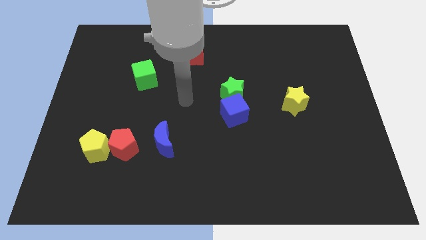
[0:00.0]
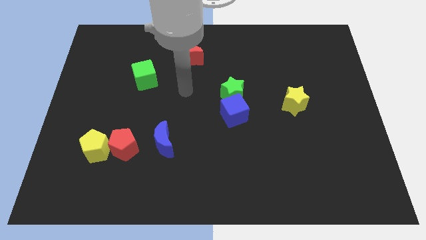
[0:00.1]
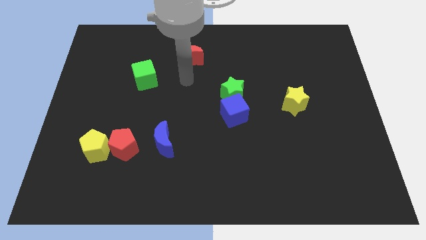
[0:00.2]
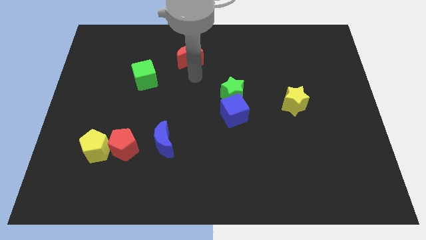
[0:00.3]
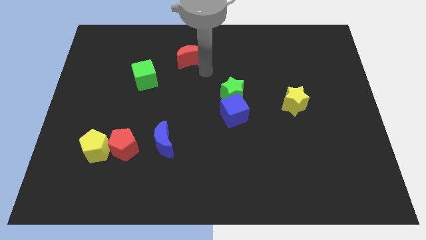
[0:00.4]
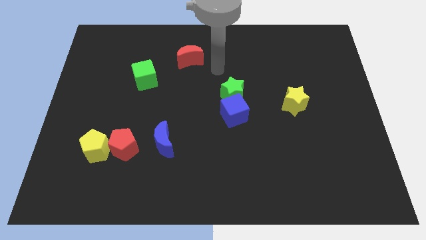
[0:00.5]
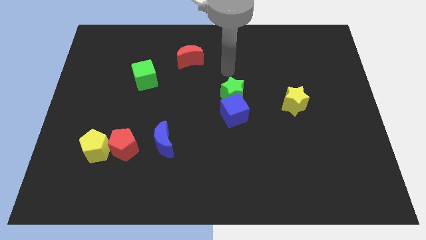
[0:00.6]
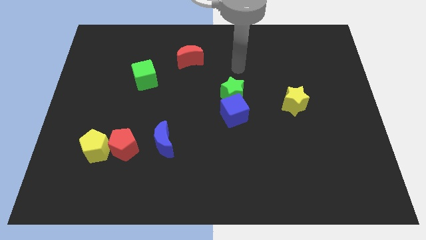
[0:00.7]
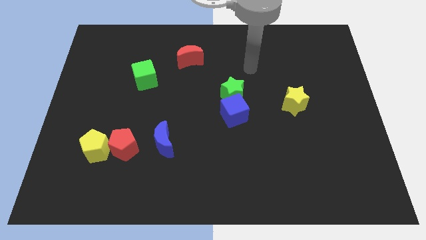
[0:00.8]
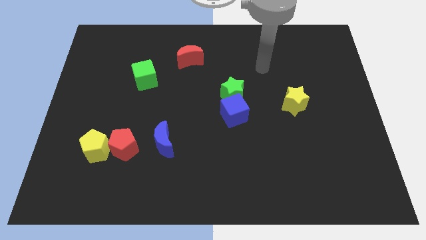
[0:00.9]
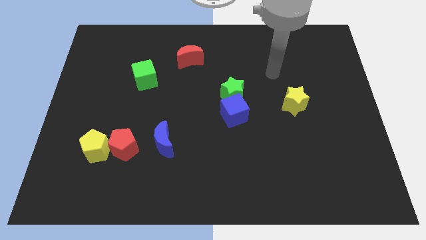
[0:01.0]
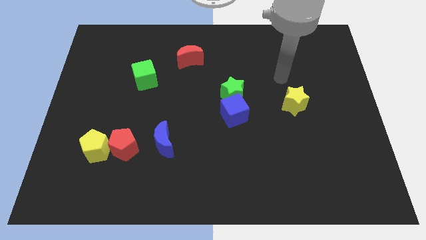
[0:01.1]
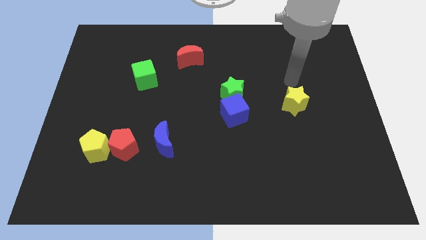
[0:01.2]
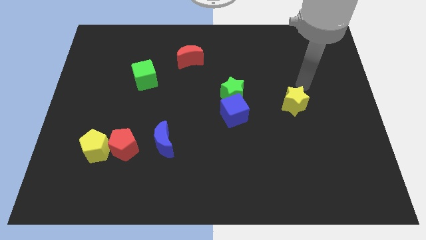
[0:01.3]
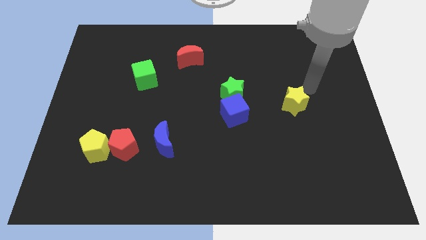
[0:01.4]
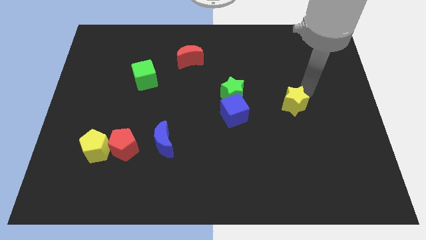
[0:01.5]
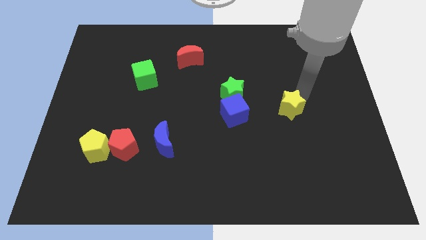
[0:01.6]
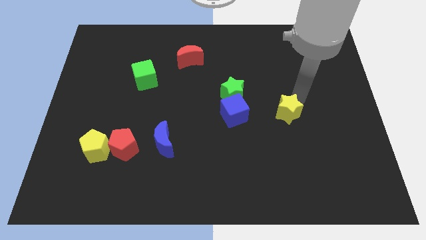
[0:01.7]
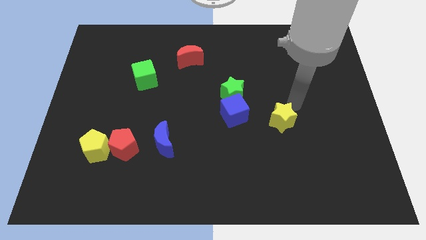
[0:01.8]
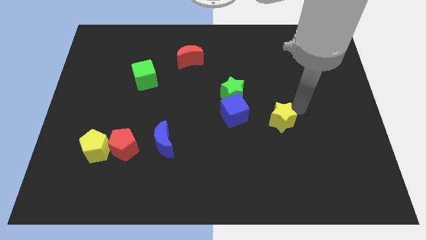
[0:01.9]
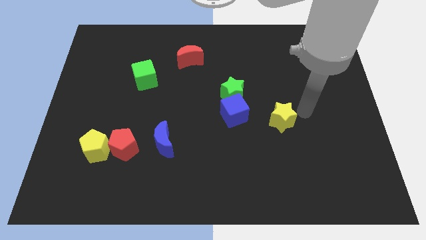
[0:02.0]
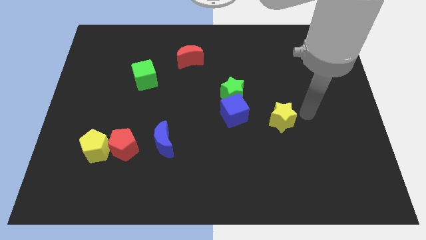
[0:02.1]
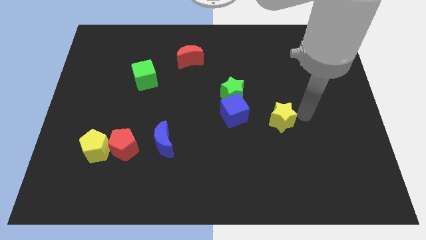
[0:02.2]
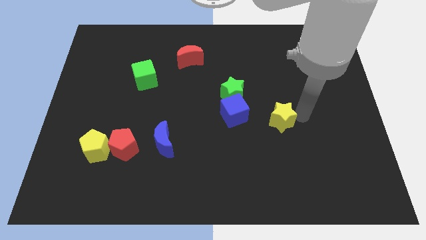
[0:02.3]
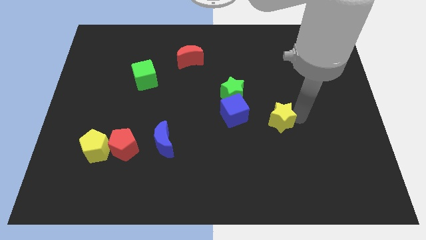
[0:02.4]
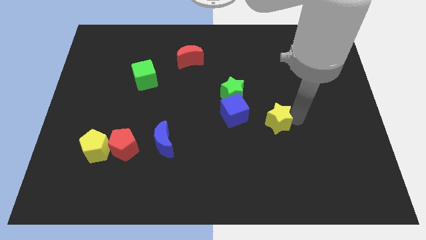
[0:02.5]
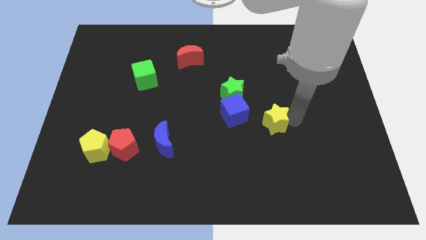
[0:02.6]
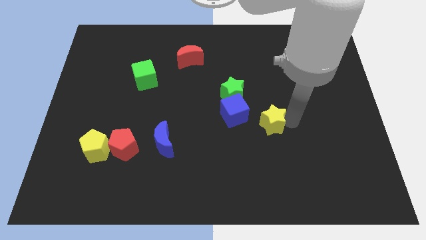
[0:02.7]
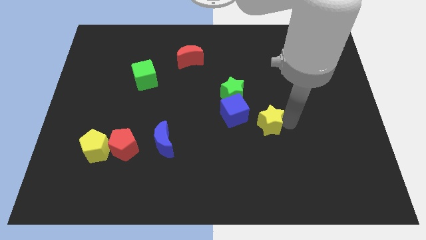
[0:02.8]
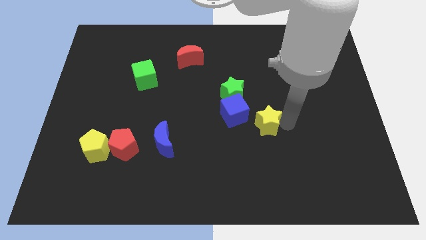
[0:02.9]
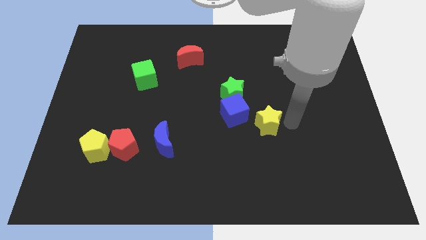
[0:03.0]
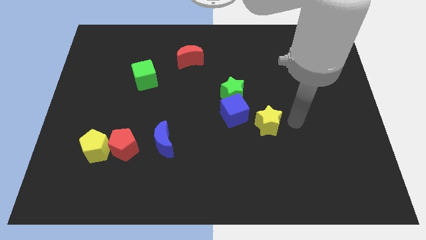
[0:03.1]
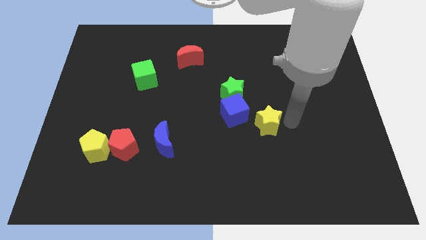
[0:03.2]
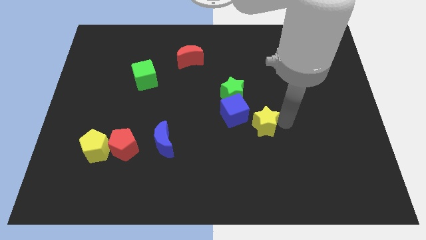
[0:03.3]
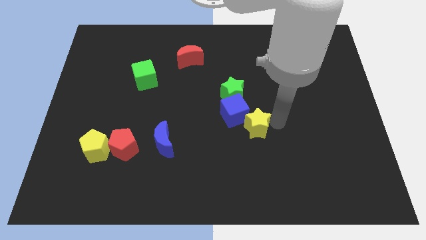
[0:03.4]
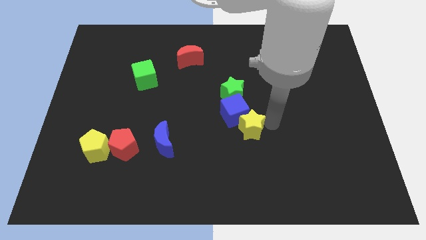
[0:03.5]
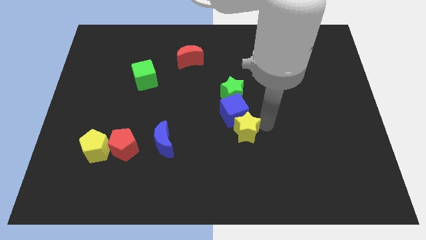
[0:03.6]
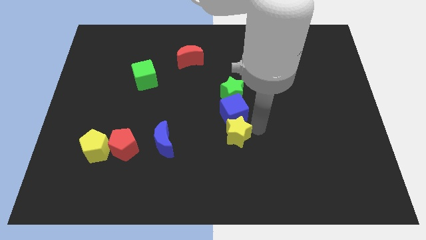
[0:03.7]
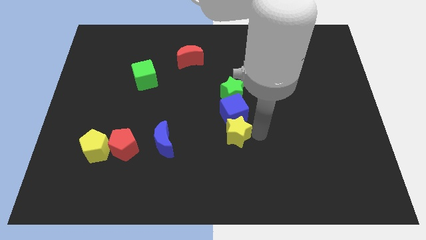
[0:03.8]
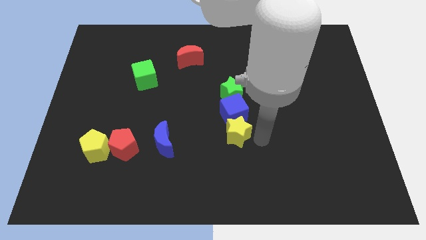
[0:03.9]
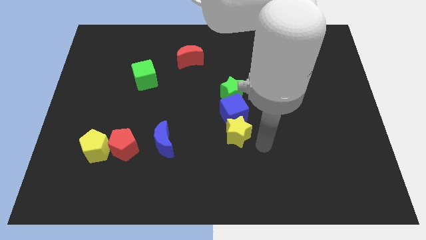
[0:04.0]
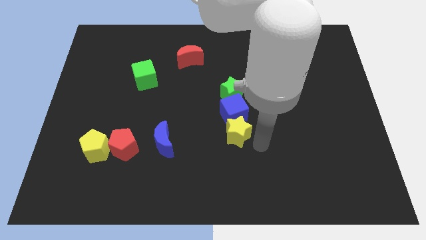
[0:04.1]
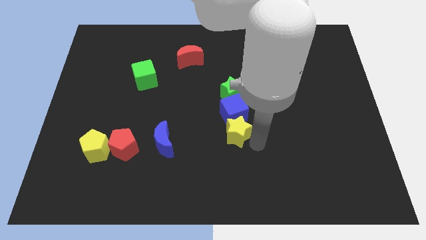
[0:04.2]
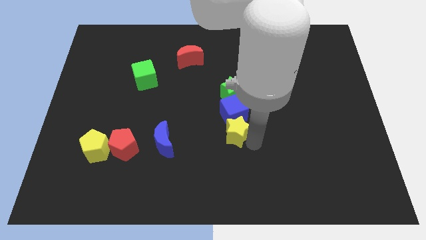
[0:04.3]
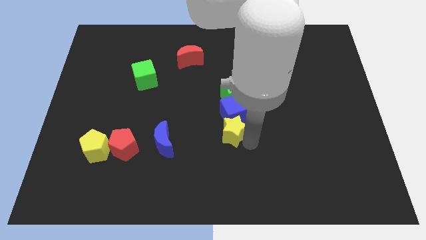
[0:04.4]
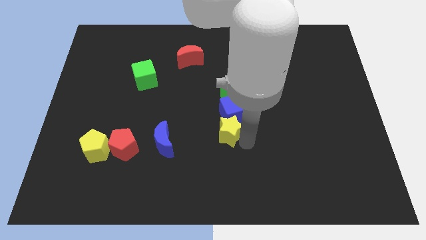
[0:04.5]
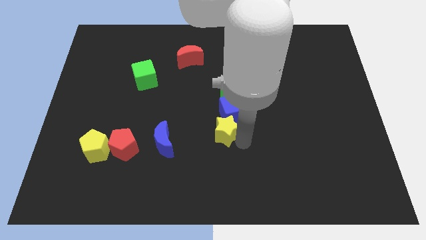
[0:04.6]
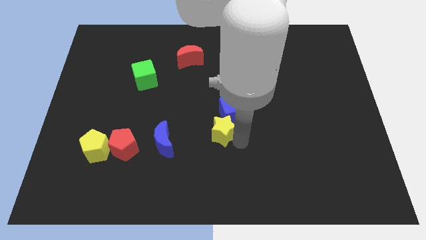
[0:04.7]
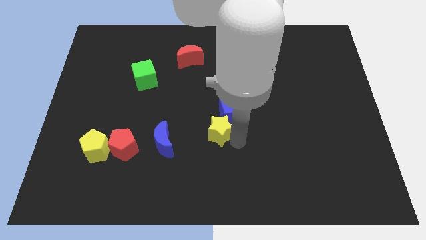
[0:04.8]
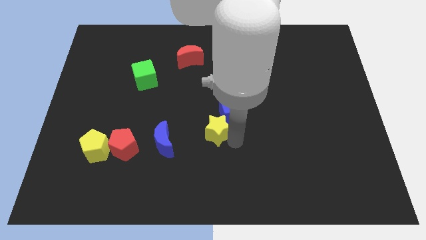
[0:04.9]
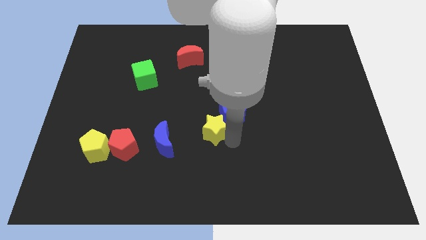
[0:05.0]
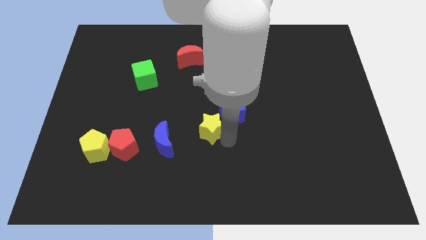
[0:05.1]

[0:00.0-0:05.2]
move the yellow star just left of the blue cube

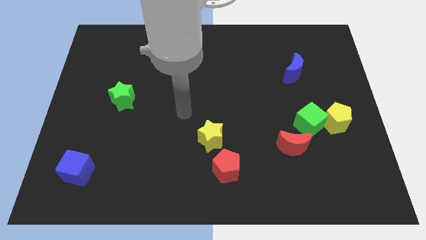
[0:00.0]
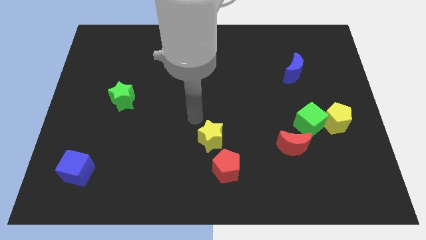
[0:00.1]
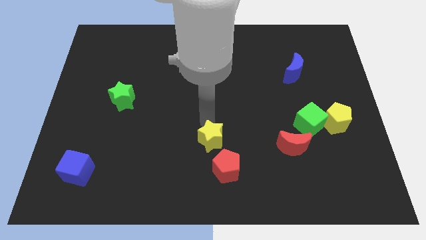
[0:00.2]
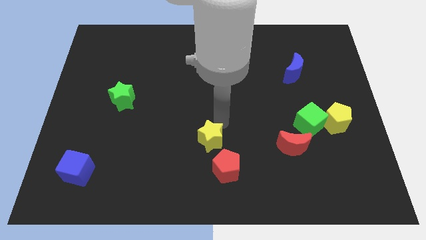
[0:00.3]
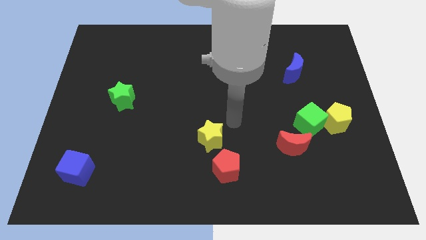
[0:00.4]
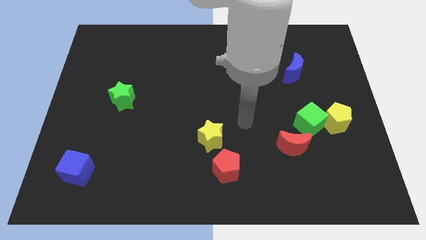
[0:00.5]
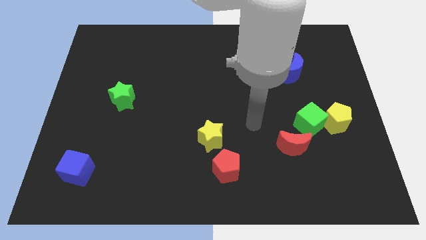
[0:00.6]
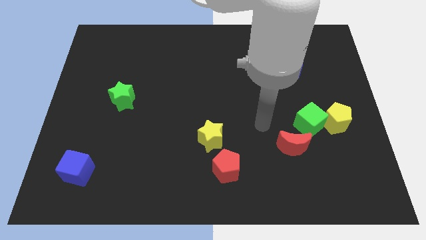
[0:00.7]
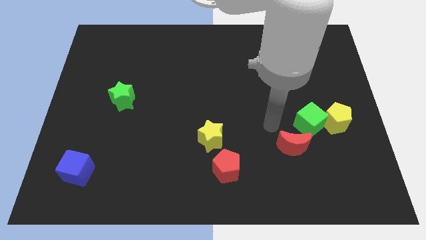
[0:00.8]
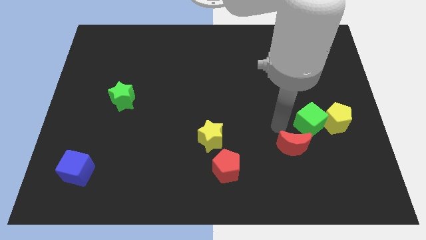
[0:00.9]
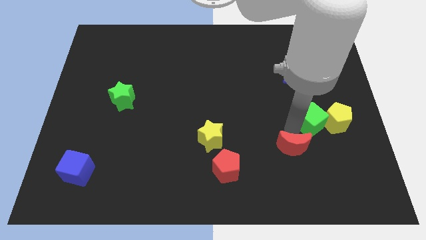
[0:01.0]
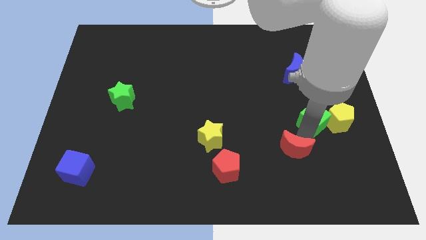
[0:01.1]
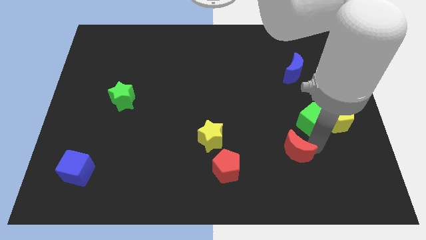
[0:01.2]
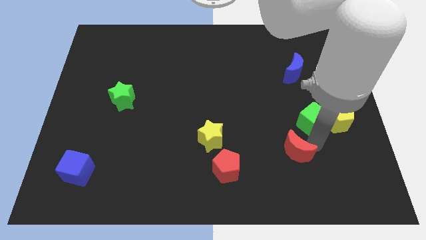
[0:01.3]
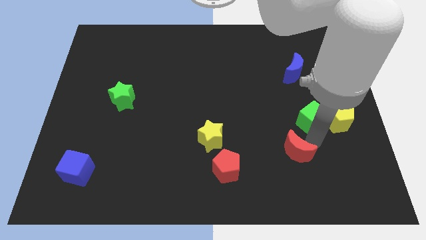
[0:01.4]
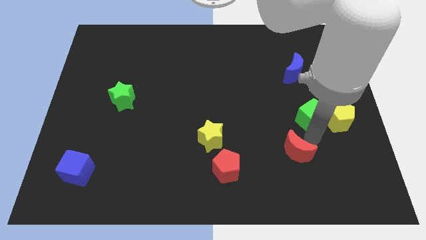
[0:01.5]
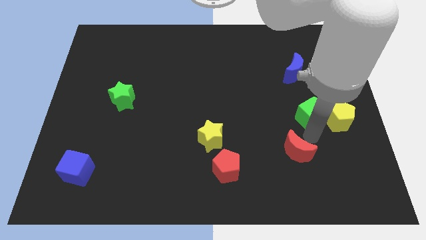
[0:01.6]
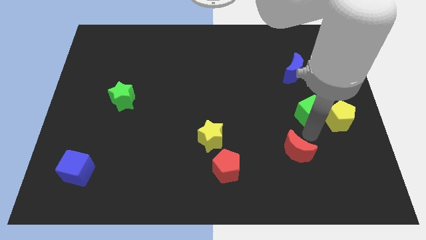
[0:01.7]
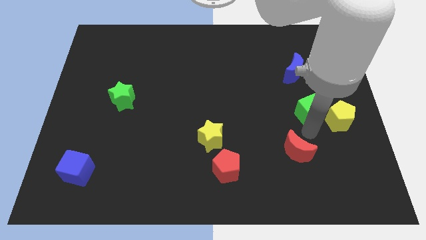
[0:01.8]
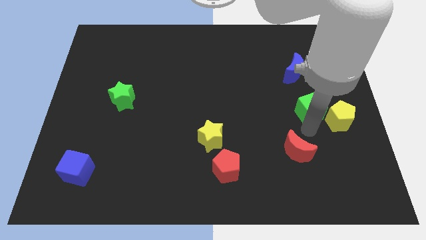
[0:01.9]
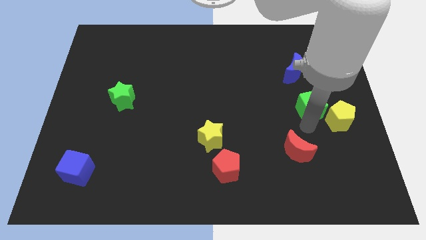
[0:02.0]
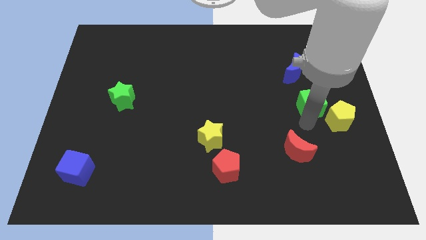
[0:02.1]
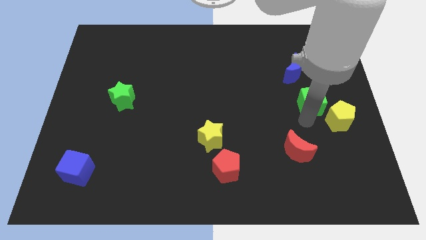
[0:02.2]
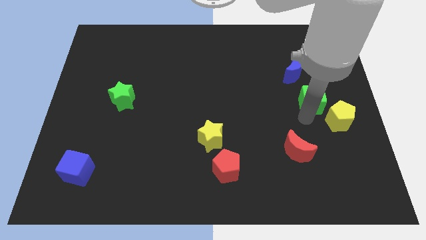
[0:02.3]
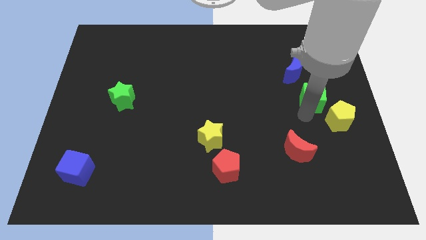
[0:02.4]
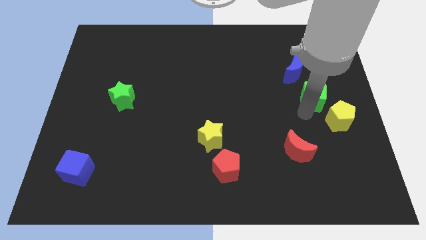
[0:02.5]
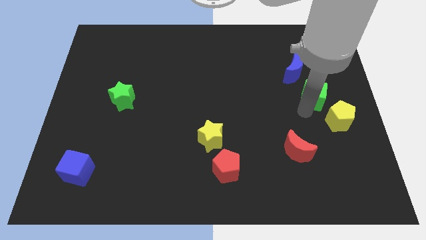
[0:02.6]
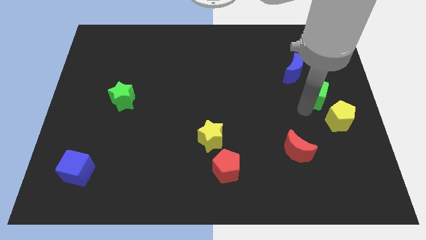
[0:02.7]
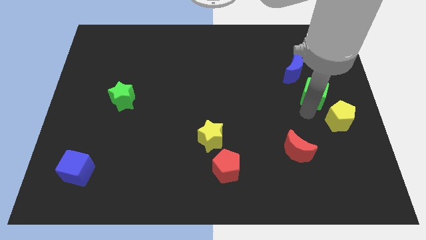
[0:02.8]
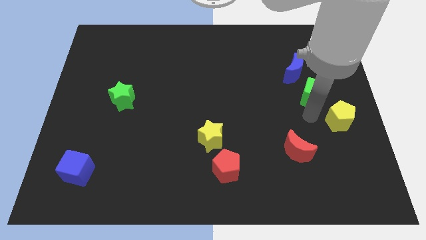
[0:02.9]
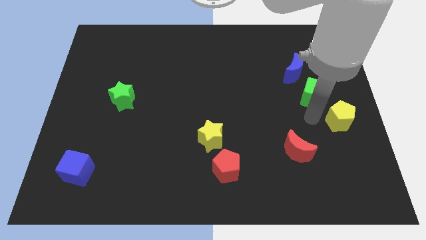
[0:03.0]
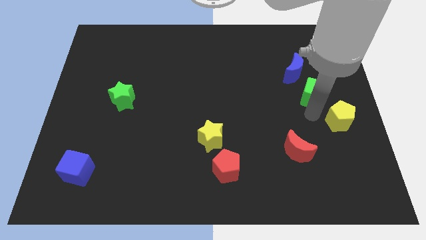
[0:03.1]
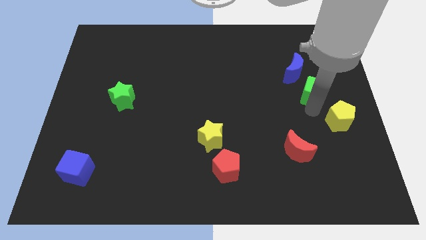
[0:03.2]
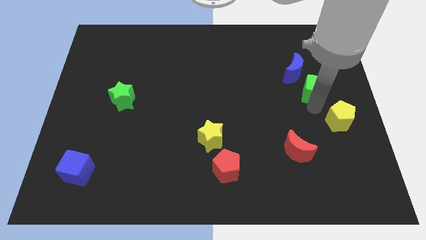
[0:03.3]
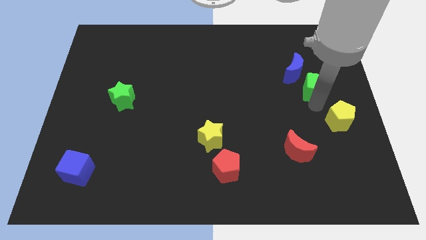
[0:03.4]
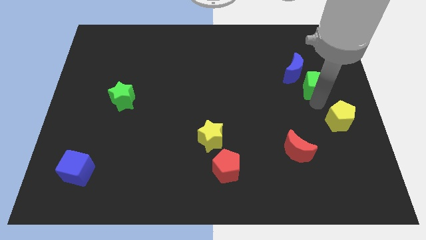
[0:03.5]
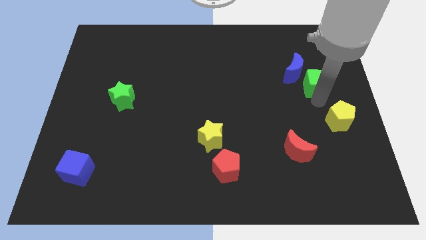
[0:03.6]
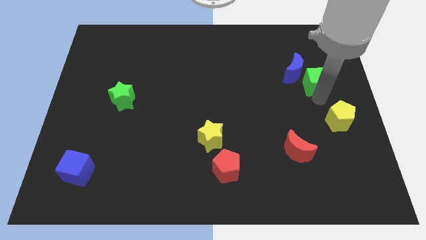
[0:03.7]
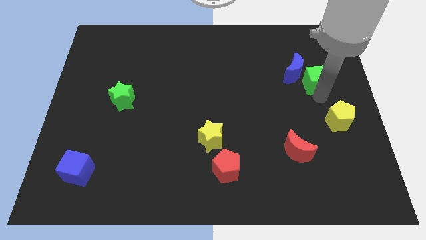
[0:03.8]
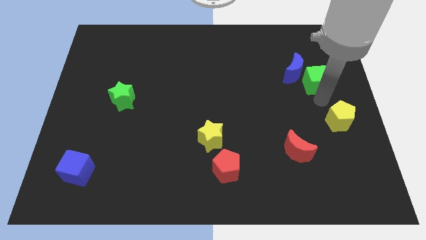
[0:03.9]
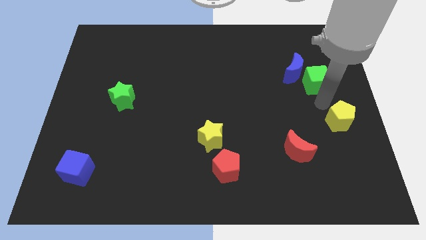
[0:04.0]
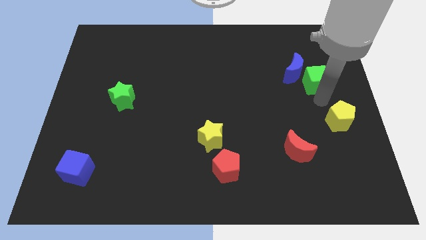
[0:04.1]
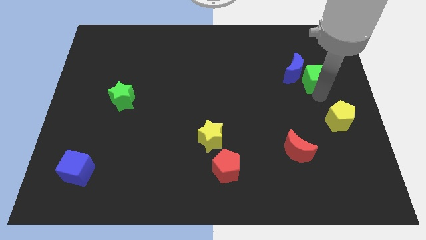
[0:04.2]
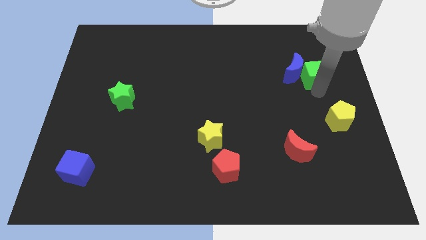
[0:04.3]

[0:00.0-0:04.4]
push the green cube to the top right side of the blue moon
